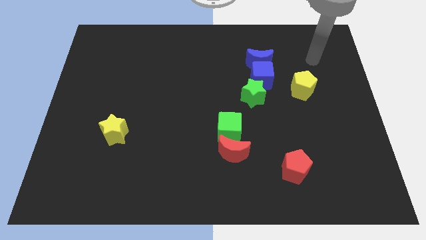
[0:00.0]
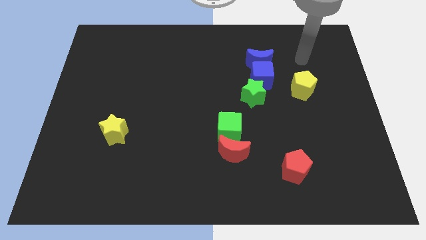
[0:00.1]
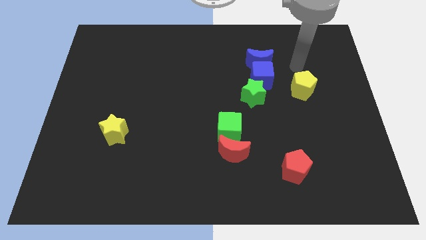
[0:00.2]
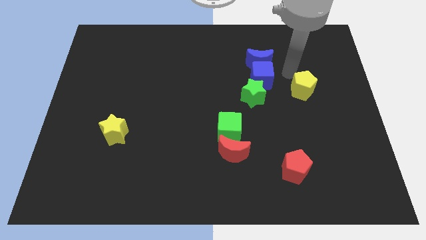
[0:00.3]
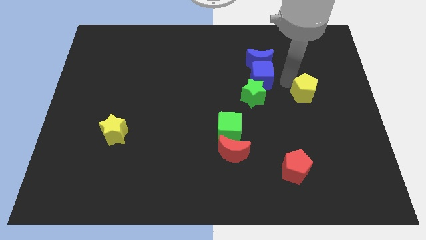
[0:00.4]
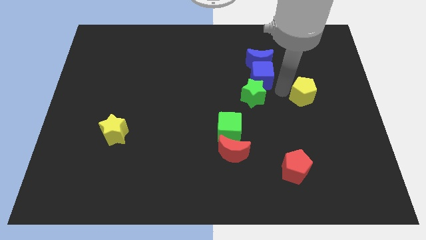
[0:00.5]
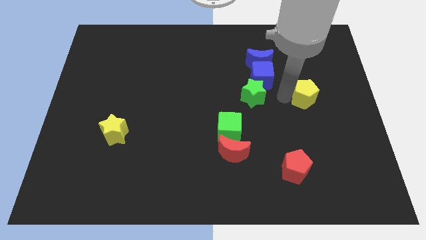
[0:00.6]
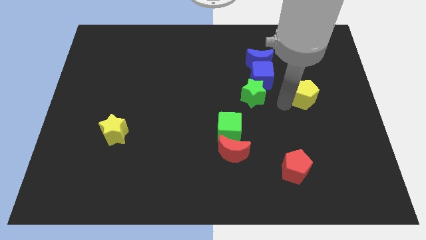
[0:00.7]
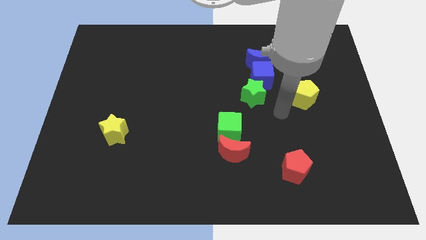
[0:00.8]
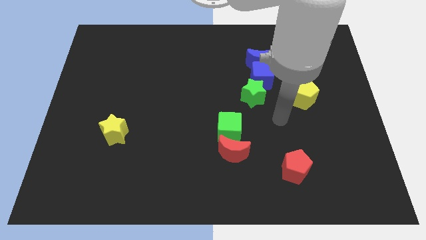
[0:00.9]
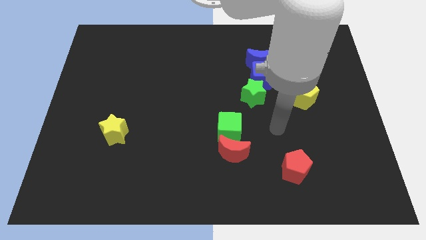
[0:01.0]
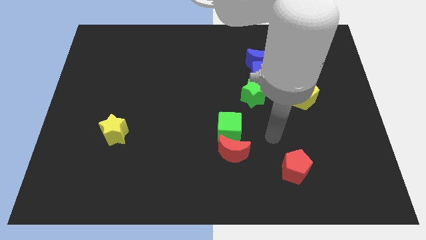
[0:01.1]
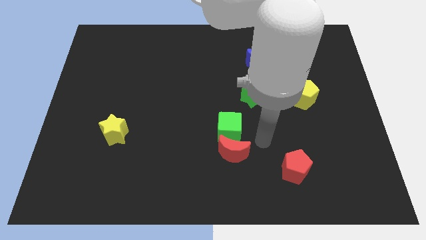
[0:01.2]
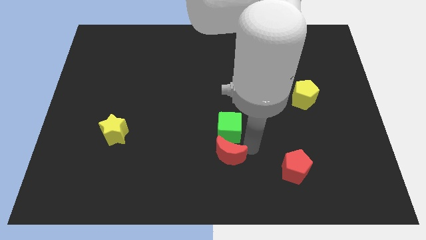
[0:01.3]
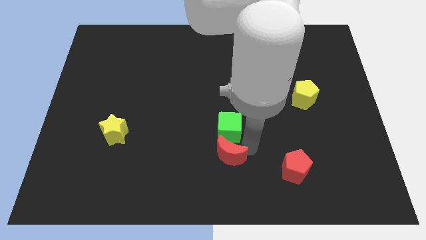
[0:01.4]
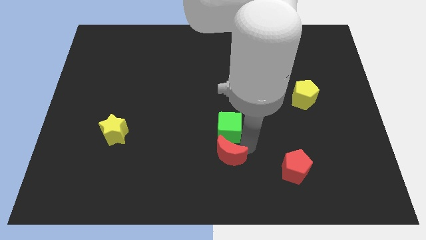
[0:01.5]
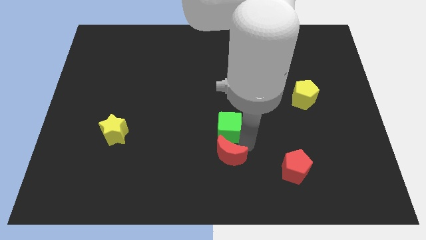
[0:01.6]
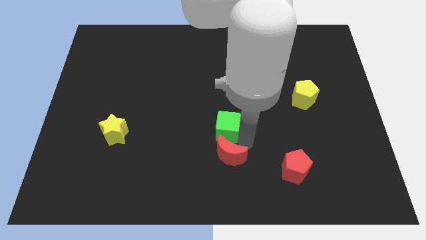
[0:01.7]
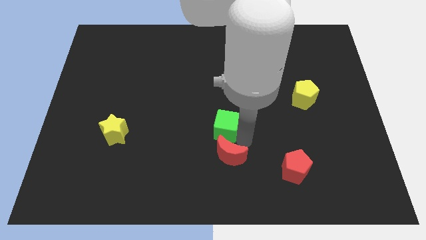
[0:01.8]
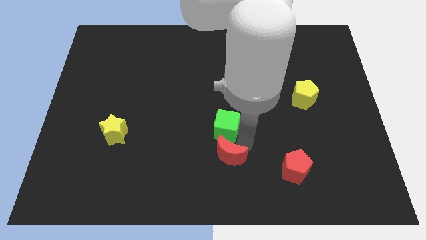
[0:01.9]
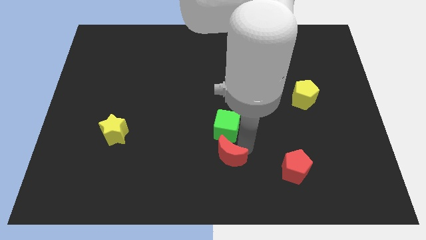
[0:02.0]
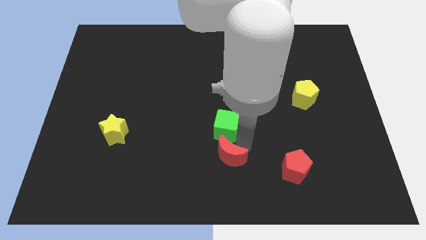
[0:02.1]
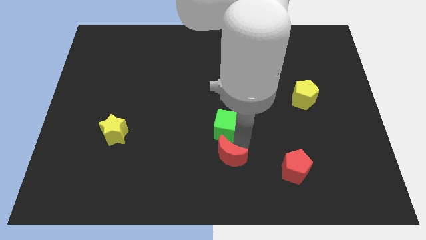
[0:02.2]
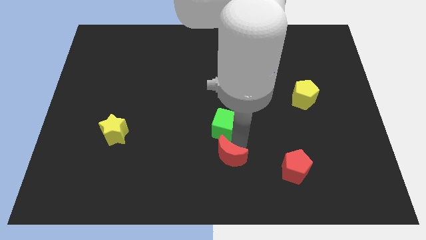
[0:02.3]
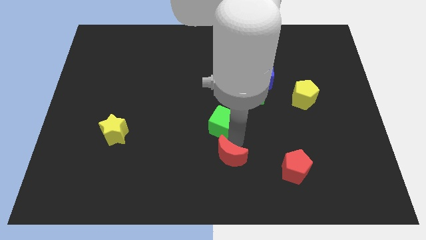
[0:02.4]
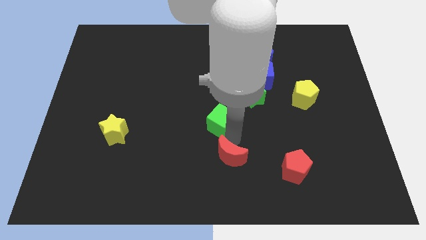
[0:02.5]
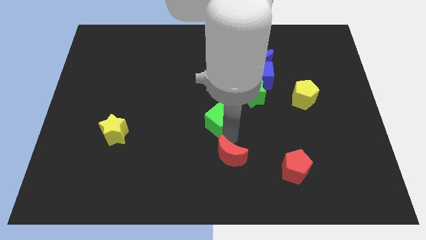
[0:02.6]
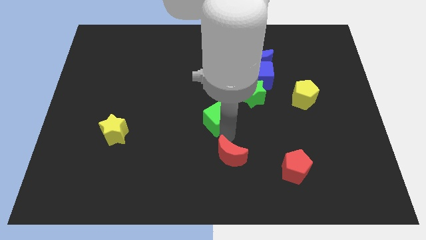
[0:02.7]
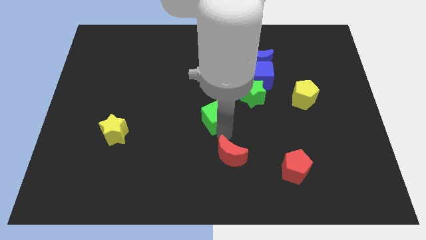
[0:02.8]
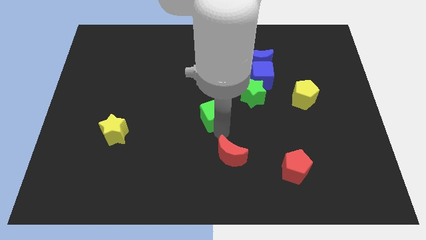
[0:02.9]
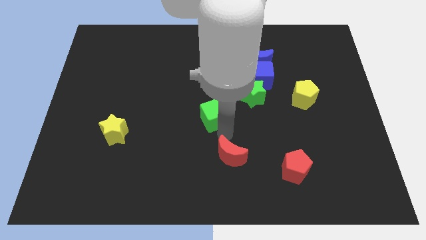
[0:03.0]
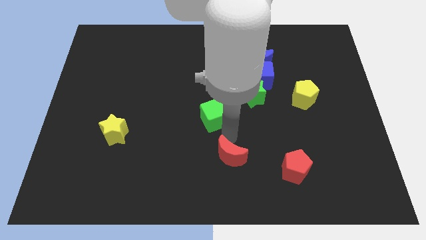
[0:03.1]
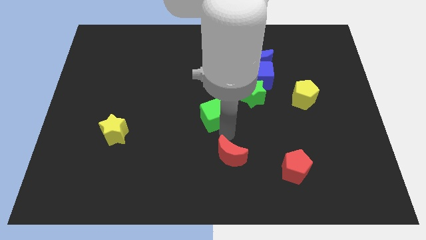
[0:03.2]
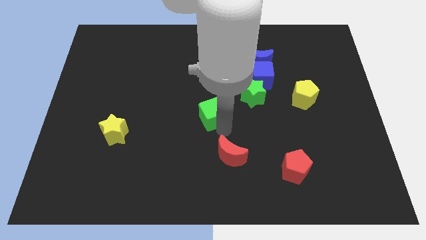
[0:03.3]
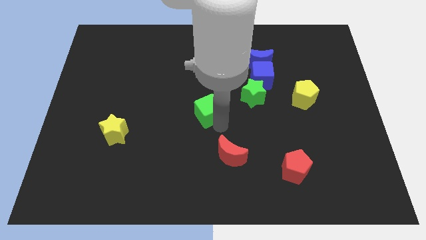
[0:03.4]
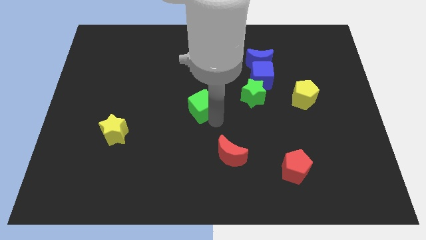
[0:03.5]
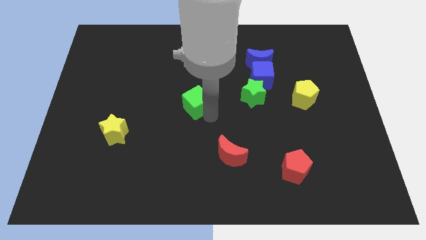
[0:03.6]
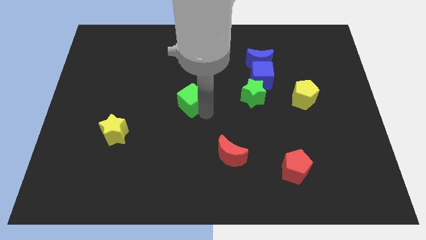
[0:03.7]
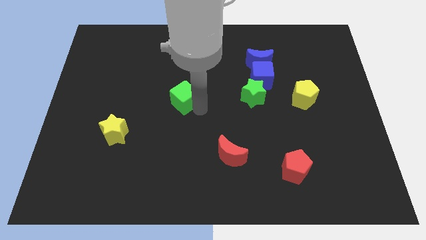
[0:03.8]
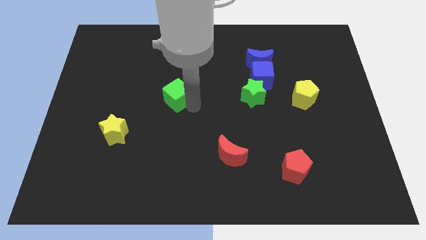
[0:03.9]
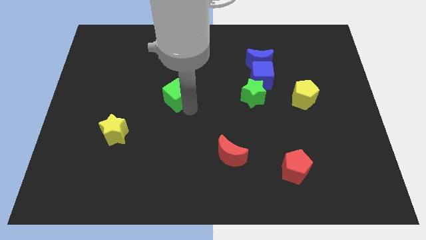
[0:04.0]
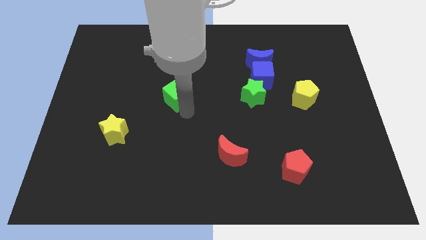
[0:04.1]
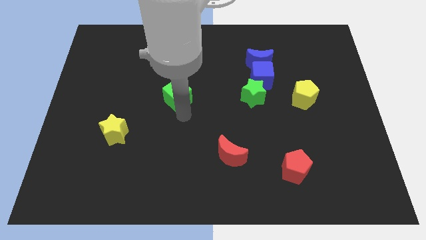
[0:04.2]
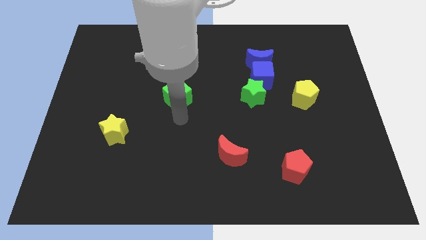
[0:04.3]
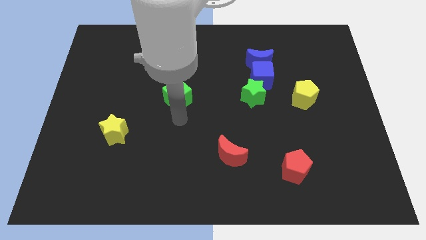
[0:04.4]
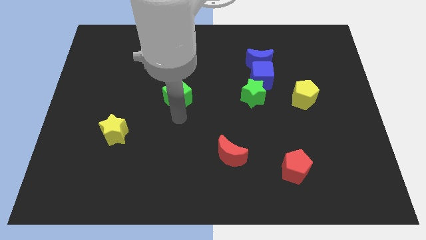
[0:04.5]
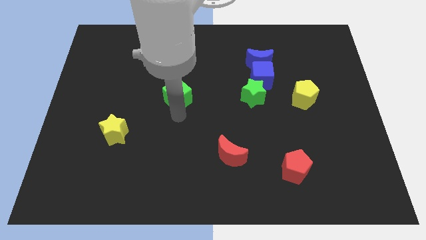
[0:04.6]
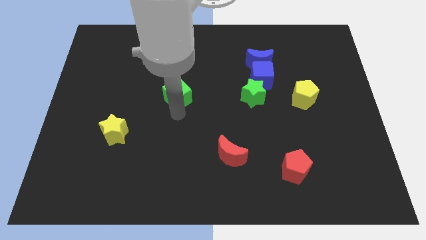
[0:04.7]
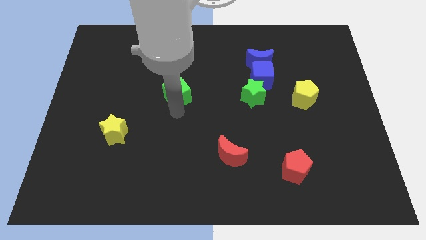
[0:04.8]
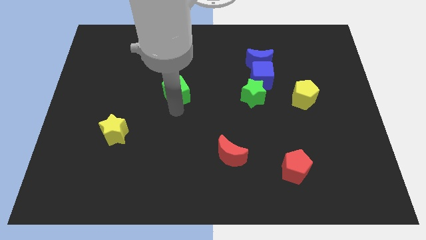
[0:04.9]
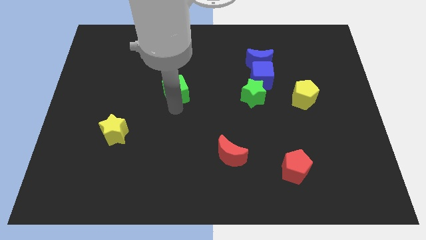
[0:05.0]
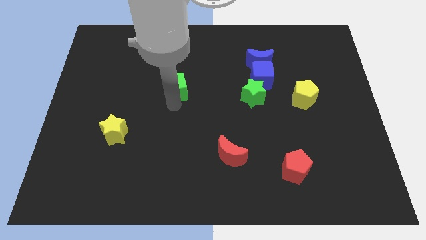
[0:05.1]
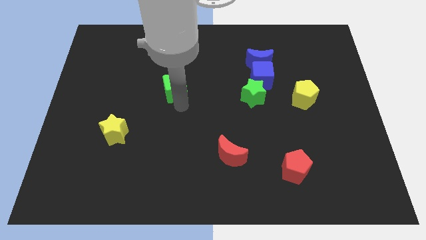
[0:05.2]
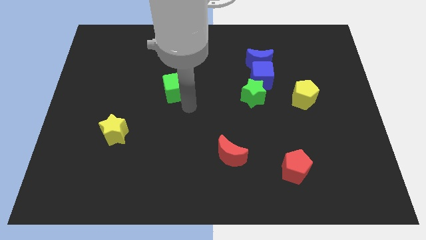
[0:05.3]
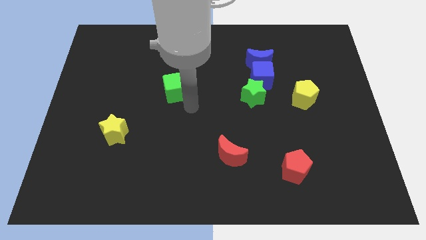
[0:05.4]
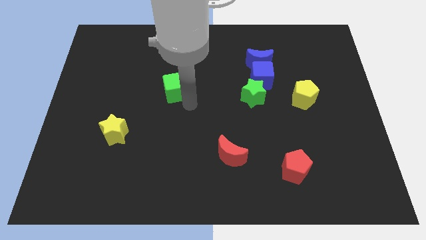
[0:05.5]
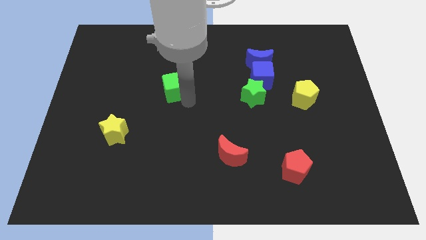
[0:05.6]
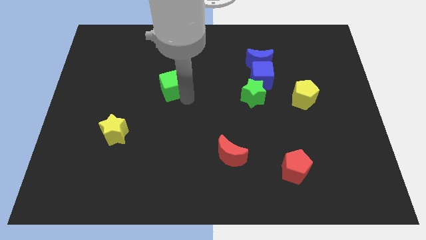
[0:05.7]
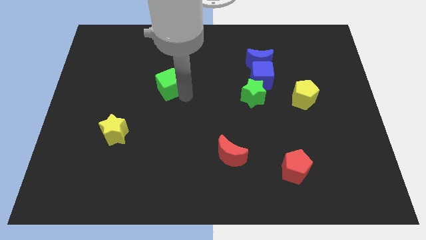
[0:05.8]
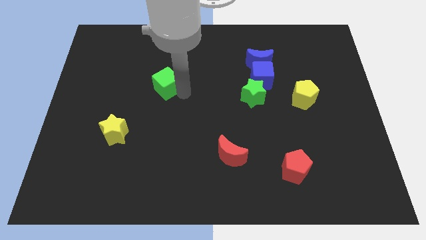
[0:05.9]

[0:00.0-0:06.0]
slide the green cube upwards and to the left

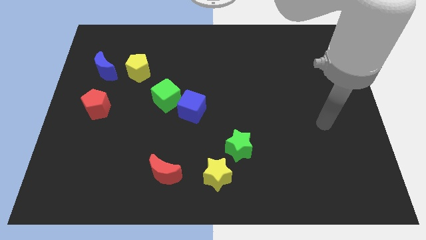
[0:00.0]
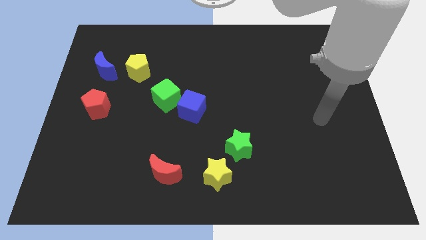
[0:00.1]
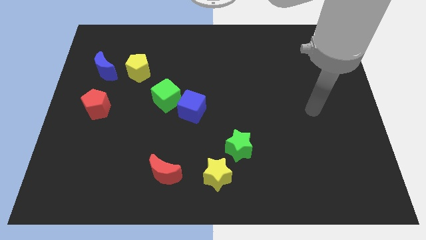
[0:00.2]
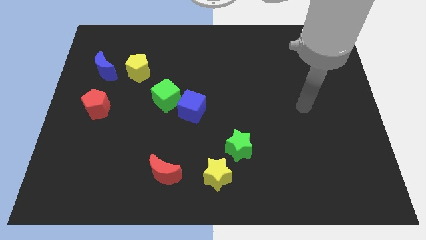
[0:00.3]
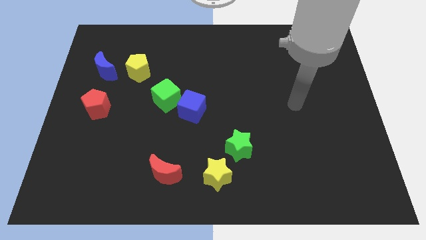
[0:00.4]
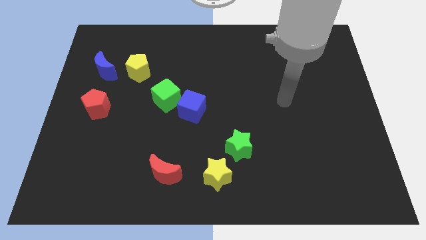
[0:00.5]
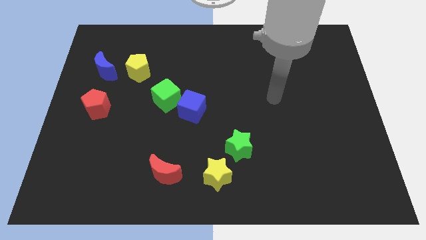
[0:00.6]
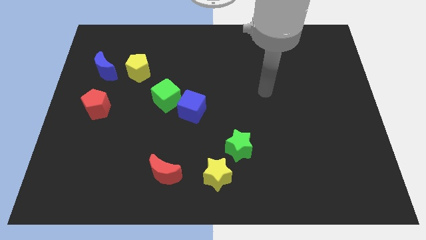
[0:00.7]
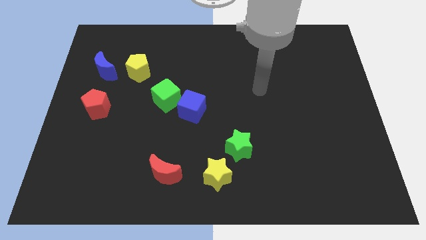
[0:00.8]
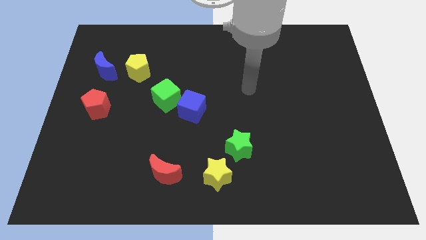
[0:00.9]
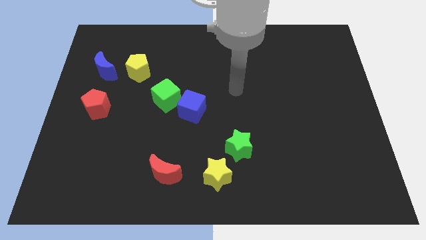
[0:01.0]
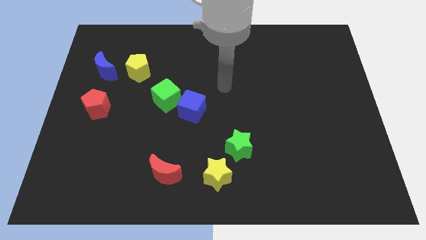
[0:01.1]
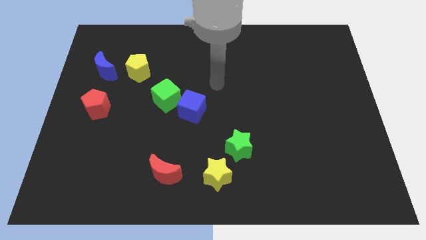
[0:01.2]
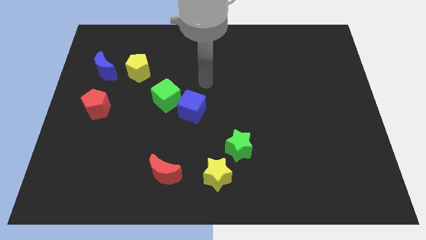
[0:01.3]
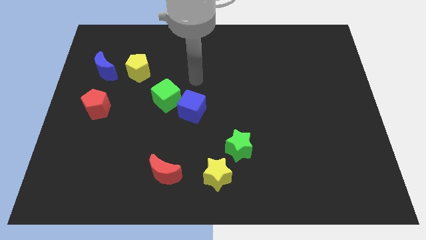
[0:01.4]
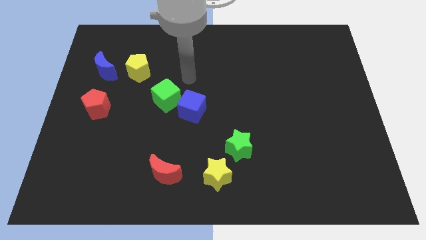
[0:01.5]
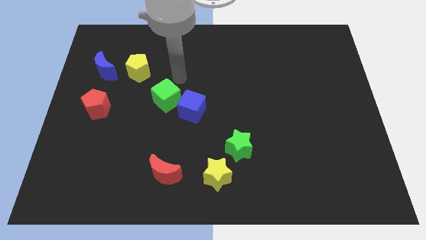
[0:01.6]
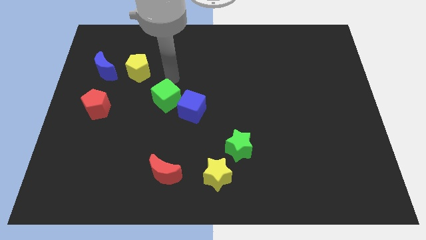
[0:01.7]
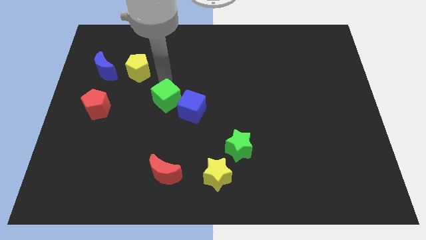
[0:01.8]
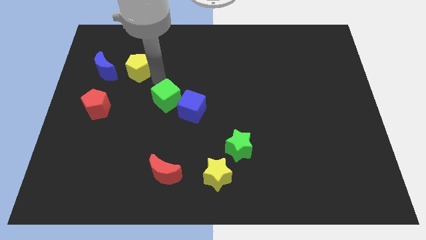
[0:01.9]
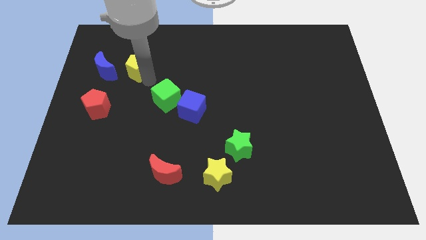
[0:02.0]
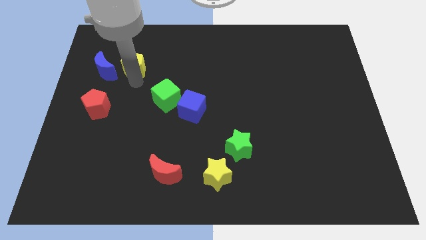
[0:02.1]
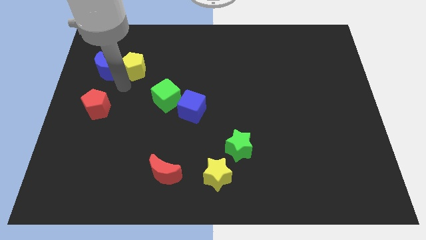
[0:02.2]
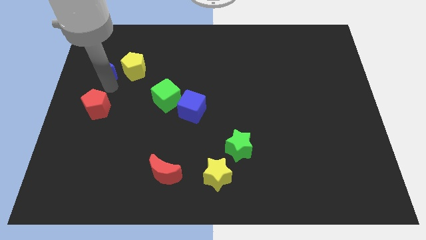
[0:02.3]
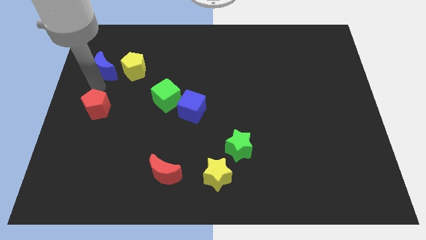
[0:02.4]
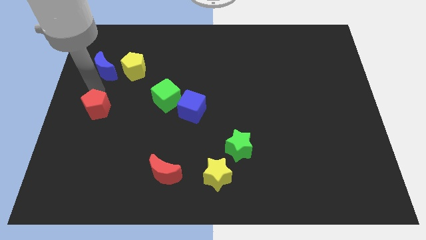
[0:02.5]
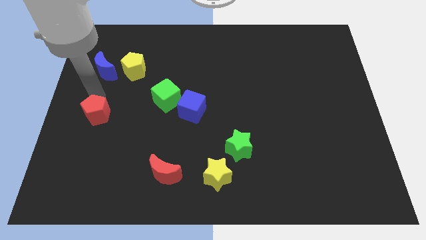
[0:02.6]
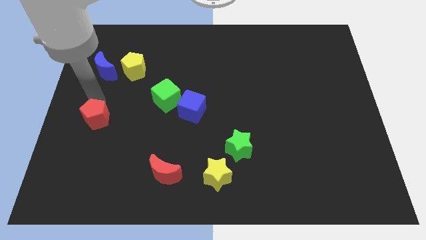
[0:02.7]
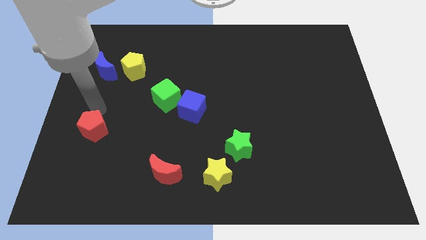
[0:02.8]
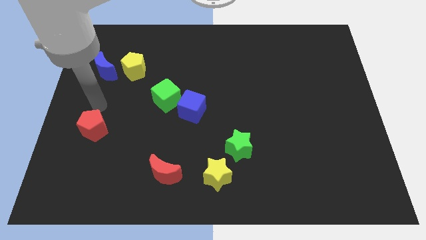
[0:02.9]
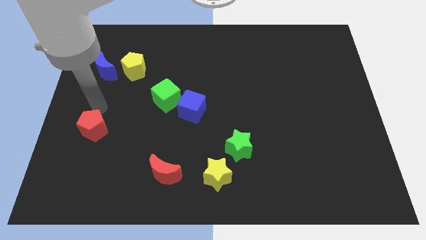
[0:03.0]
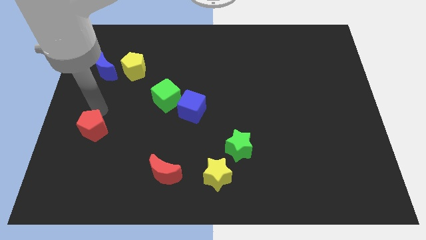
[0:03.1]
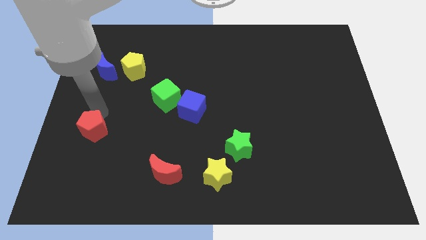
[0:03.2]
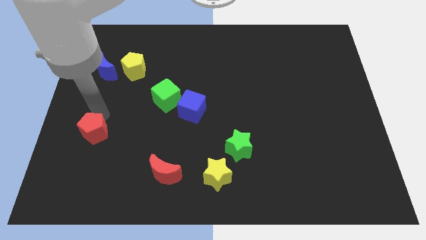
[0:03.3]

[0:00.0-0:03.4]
move the red pentagon a bit downwards
